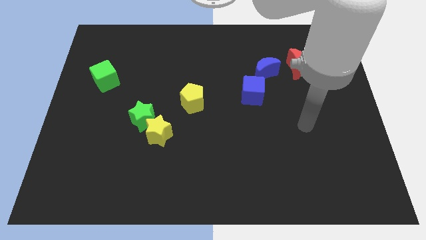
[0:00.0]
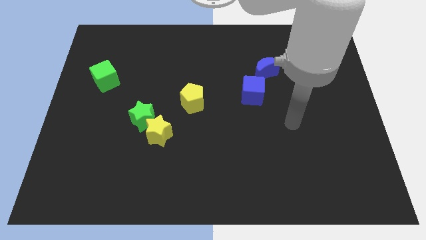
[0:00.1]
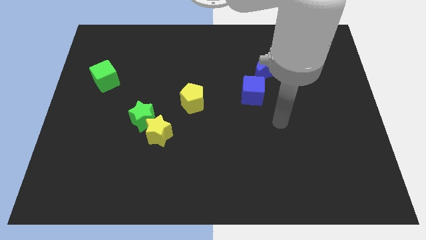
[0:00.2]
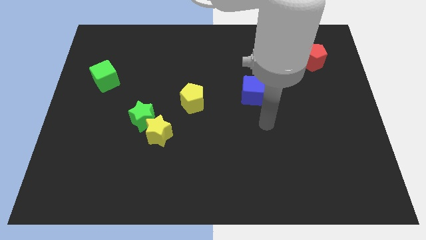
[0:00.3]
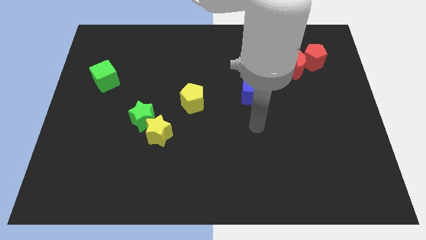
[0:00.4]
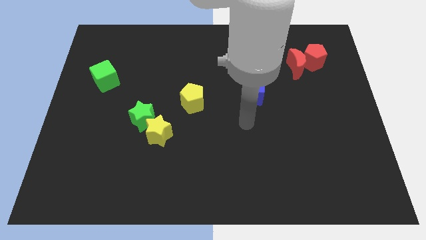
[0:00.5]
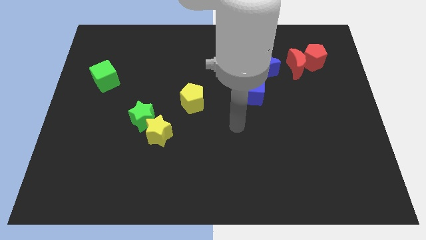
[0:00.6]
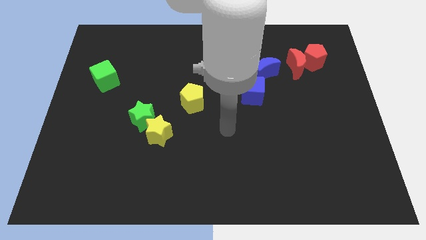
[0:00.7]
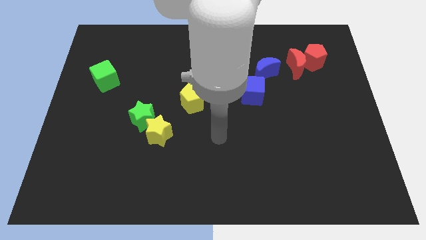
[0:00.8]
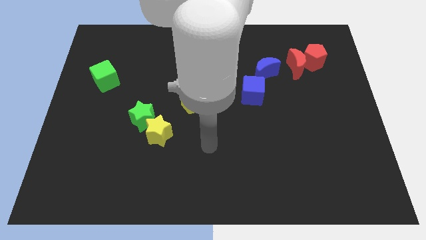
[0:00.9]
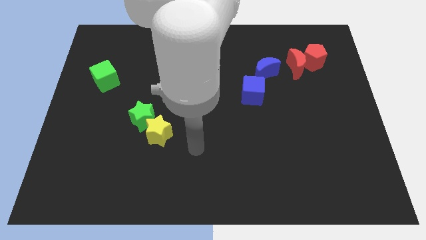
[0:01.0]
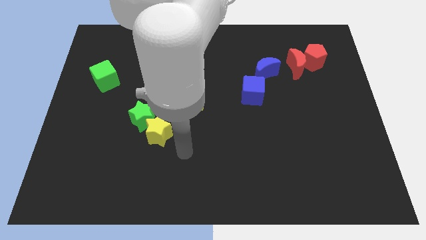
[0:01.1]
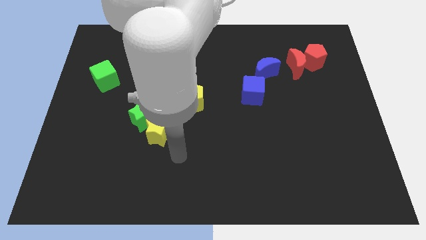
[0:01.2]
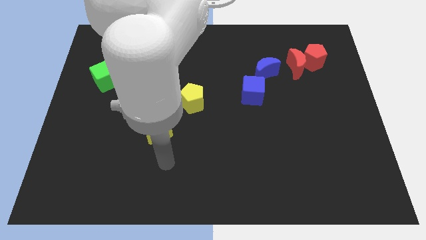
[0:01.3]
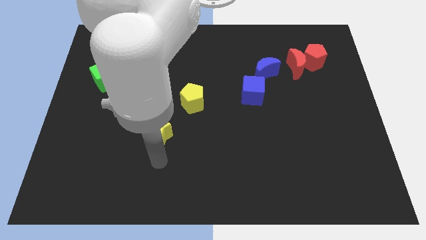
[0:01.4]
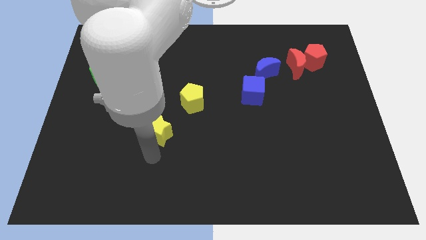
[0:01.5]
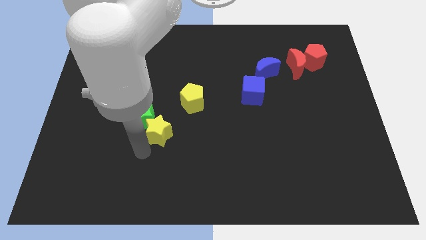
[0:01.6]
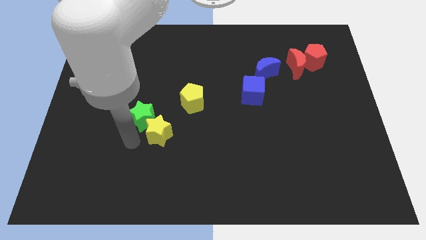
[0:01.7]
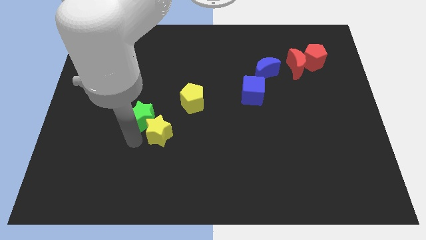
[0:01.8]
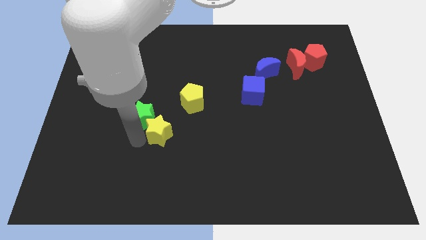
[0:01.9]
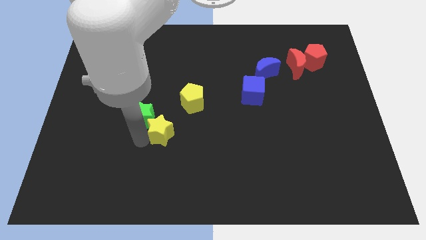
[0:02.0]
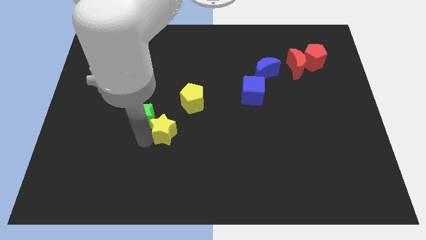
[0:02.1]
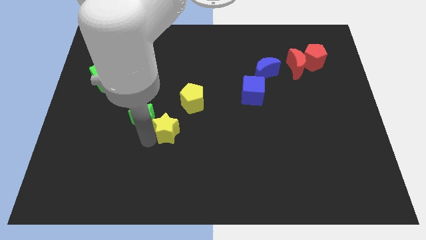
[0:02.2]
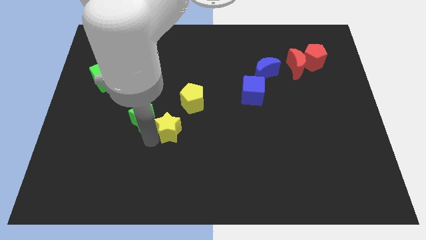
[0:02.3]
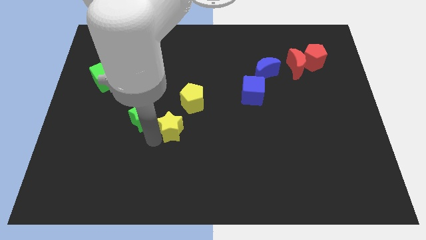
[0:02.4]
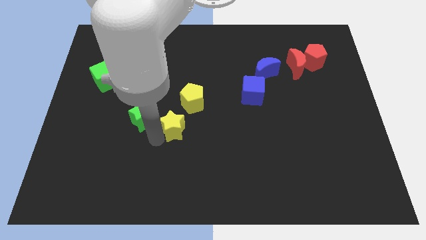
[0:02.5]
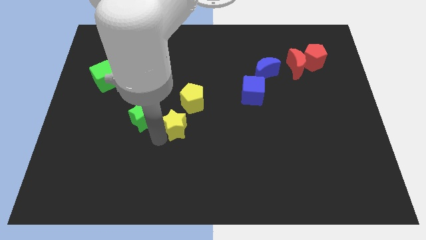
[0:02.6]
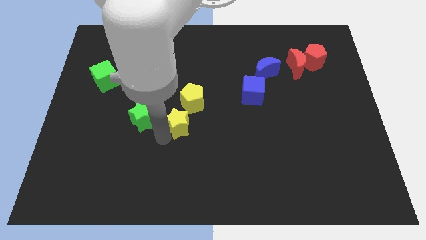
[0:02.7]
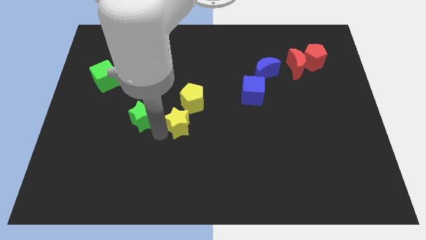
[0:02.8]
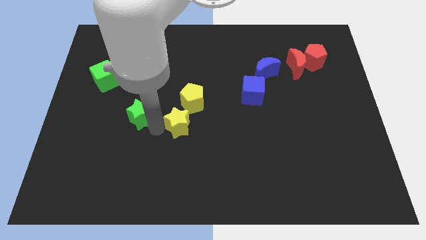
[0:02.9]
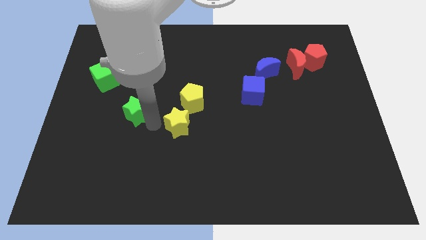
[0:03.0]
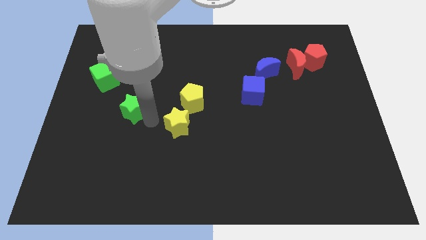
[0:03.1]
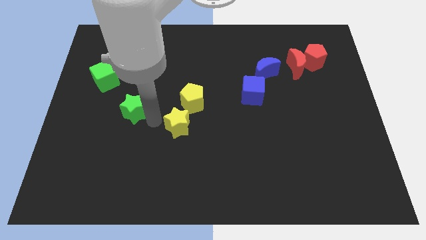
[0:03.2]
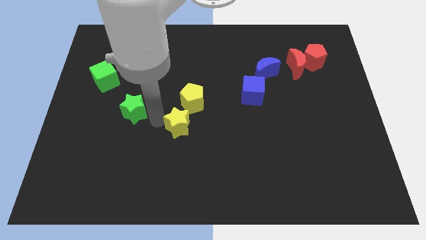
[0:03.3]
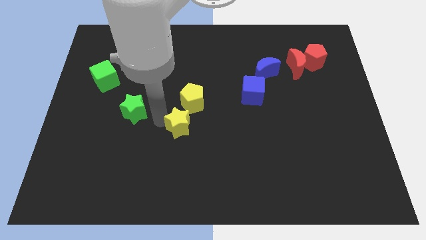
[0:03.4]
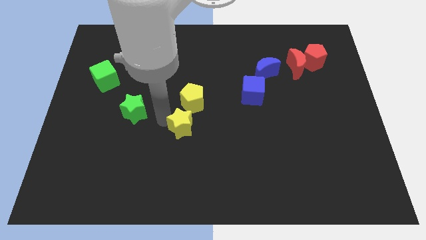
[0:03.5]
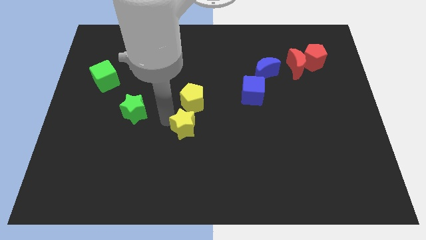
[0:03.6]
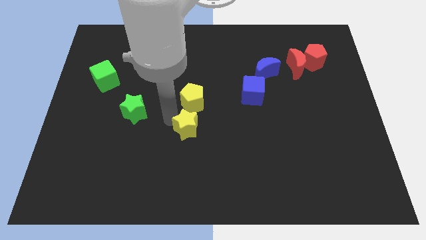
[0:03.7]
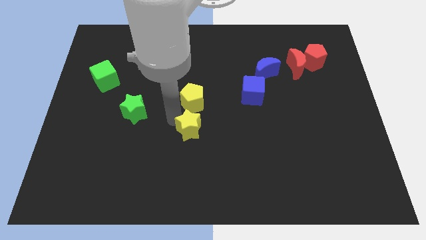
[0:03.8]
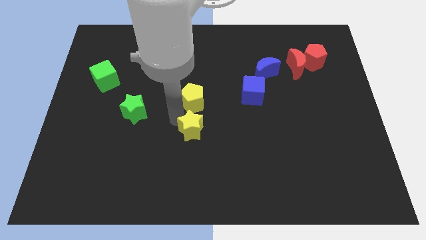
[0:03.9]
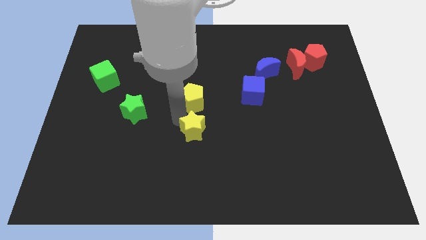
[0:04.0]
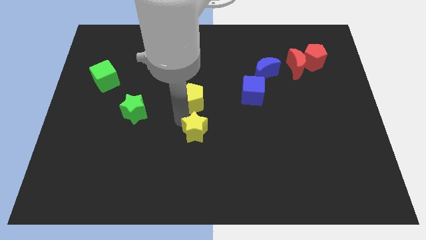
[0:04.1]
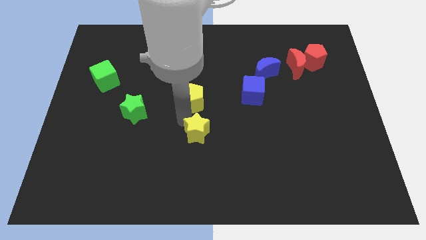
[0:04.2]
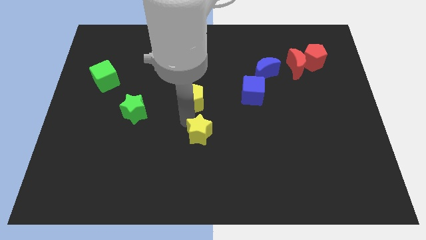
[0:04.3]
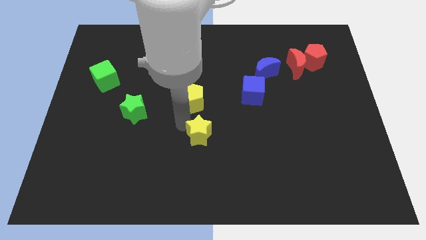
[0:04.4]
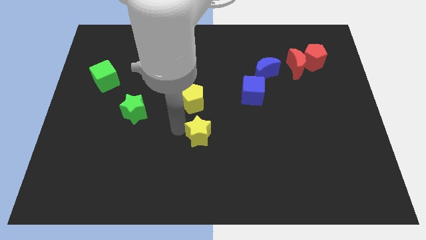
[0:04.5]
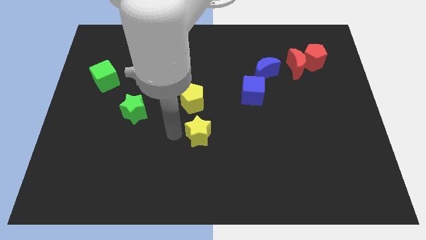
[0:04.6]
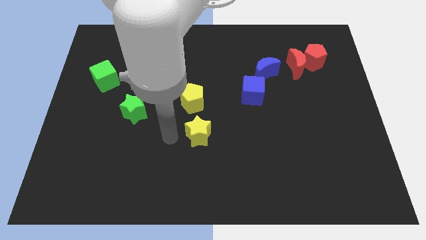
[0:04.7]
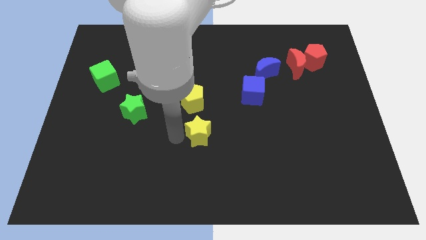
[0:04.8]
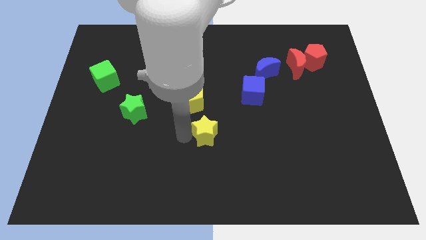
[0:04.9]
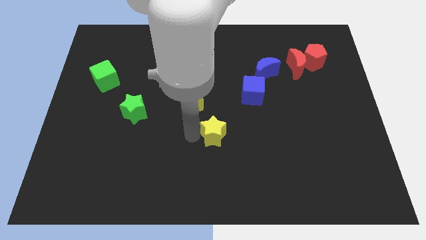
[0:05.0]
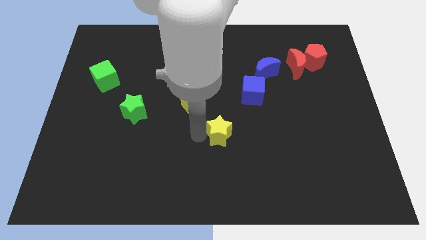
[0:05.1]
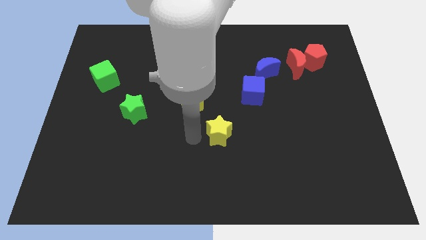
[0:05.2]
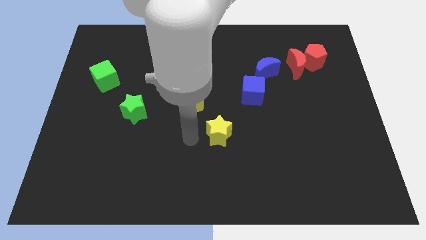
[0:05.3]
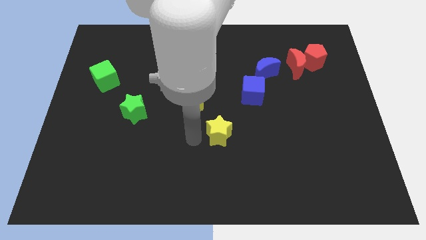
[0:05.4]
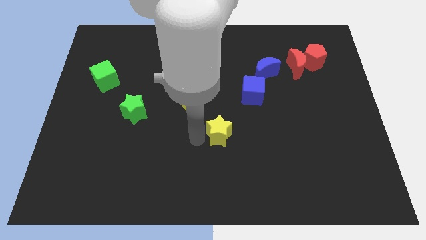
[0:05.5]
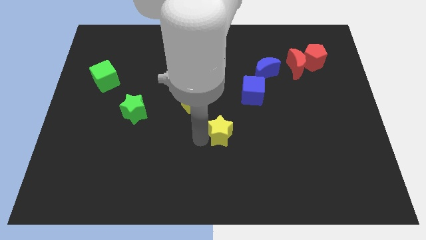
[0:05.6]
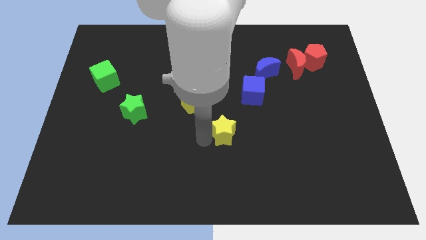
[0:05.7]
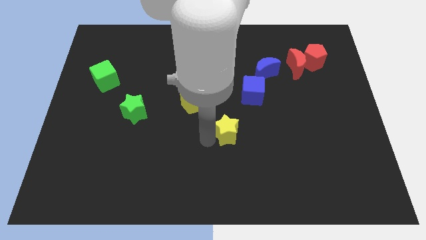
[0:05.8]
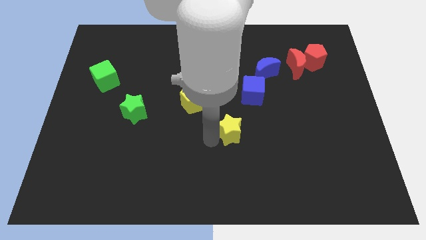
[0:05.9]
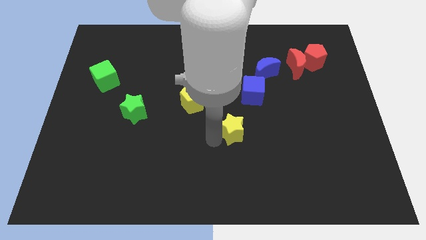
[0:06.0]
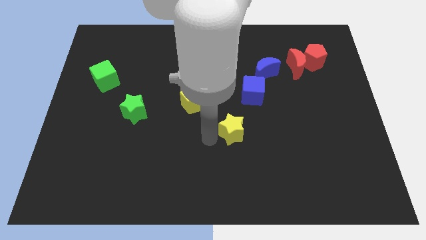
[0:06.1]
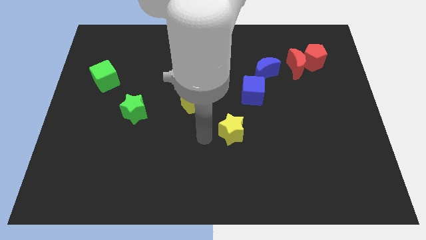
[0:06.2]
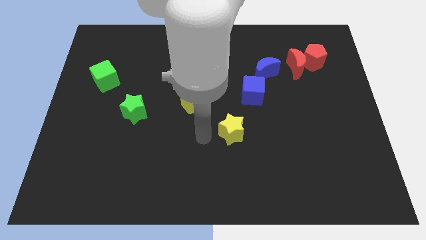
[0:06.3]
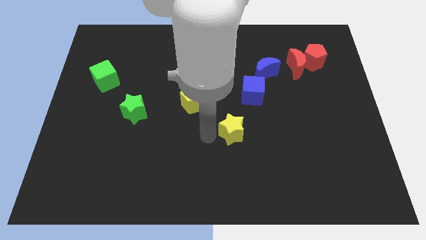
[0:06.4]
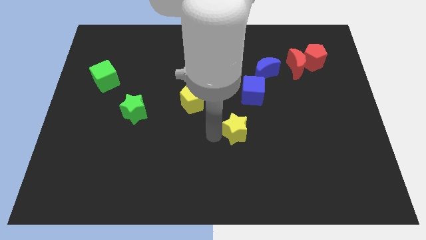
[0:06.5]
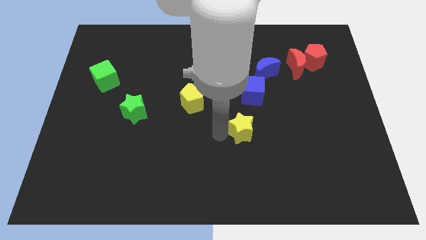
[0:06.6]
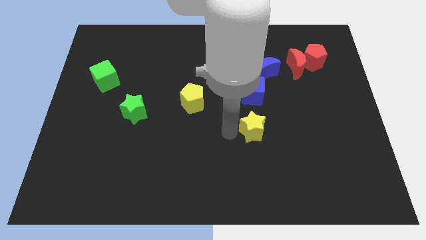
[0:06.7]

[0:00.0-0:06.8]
move the yellow star to the right

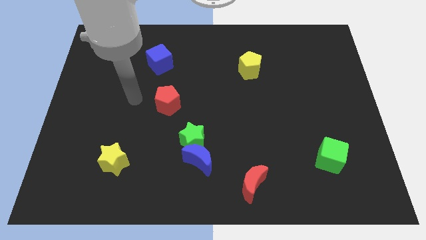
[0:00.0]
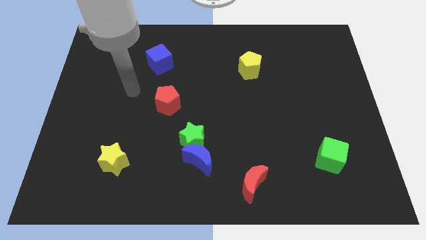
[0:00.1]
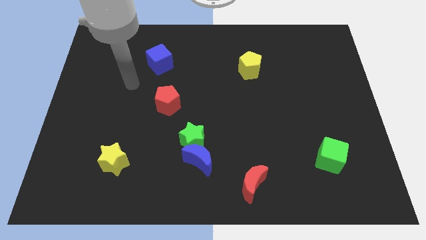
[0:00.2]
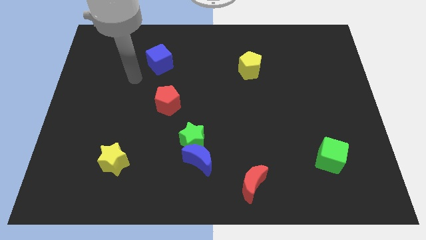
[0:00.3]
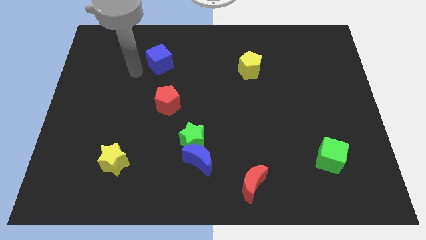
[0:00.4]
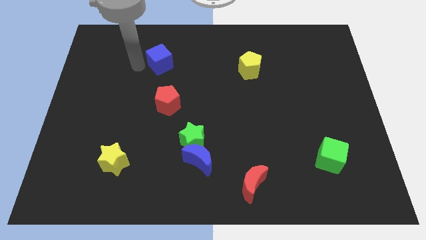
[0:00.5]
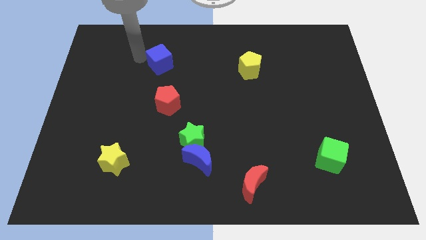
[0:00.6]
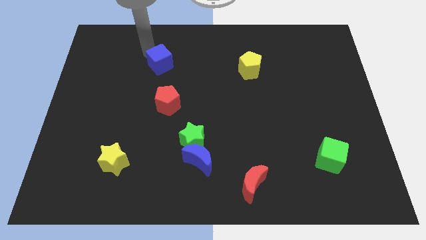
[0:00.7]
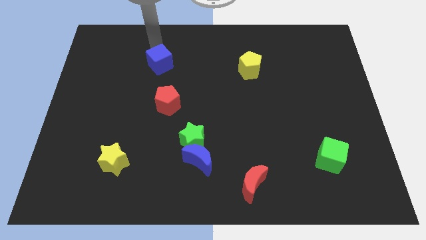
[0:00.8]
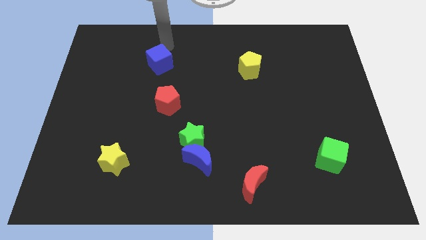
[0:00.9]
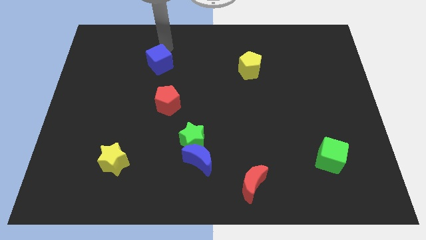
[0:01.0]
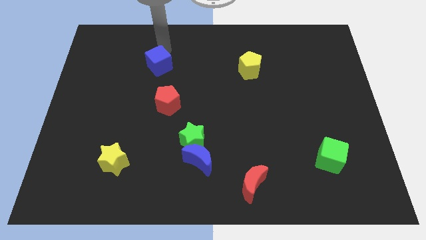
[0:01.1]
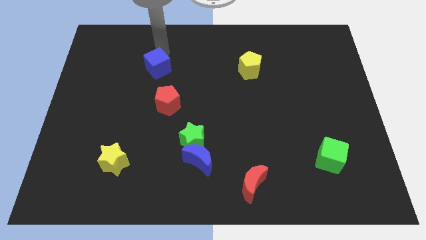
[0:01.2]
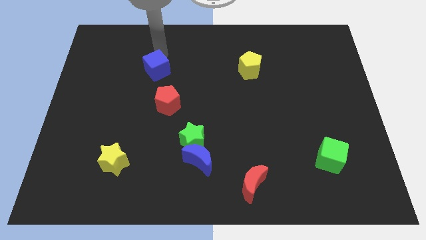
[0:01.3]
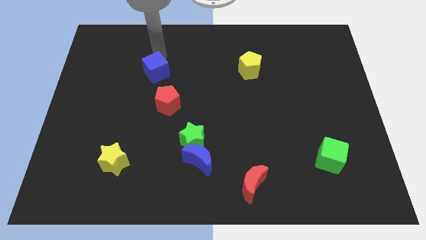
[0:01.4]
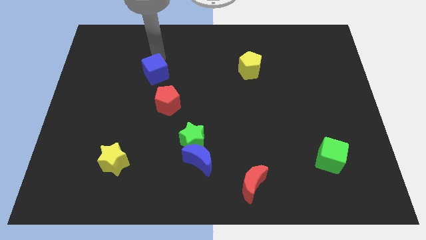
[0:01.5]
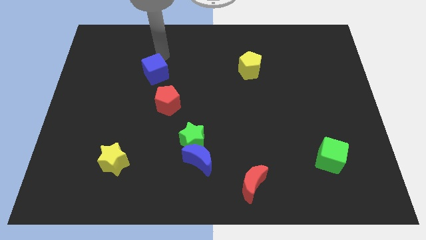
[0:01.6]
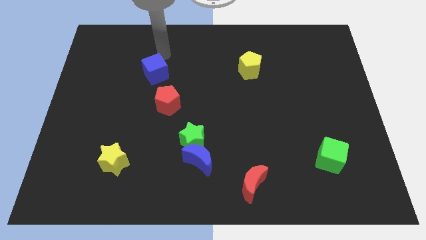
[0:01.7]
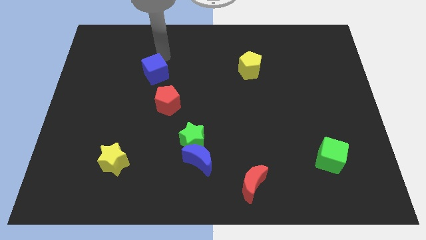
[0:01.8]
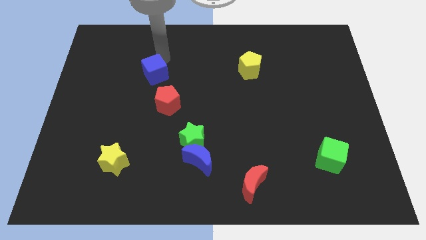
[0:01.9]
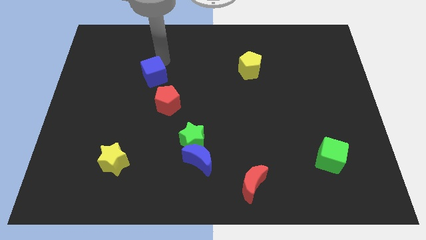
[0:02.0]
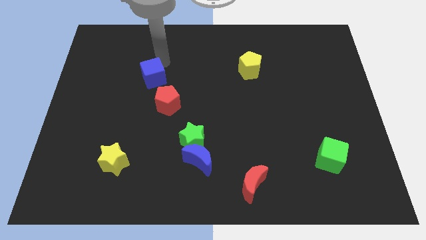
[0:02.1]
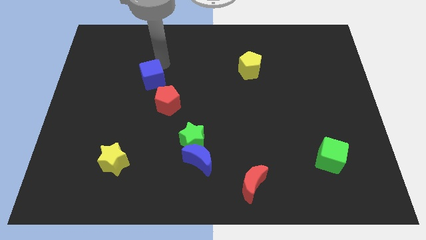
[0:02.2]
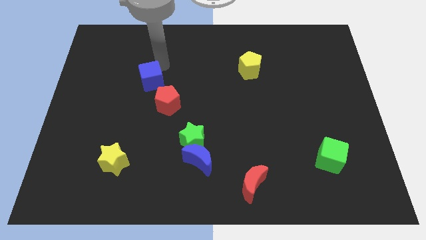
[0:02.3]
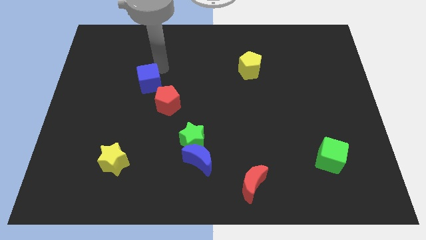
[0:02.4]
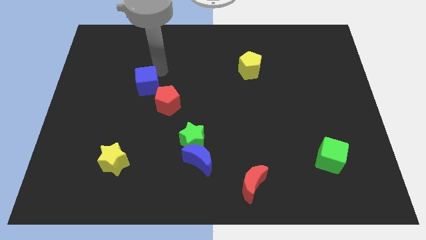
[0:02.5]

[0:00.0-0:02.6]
slide the blue cube downwards a little bit
